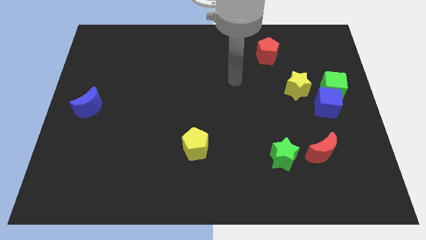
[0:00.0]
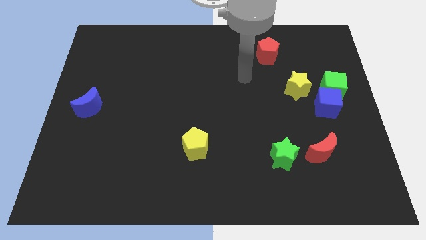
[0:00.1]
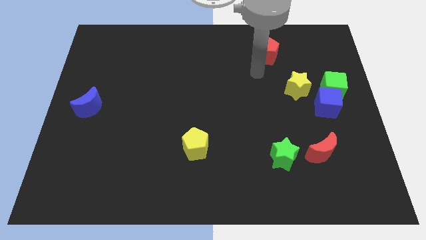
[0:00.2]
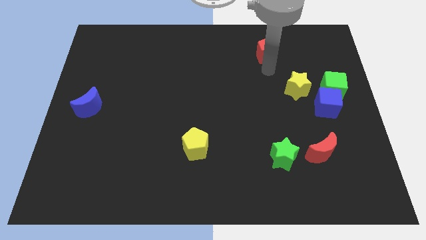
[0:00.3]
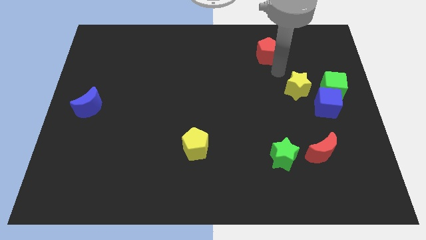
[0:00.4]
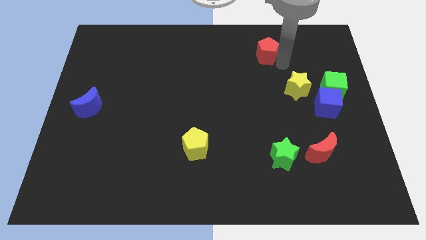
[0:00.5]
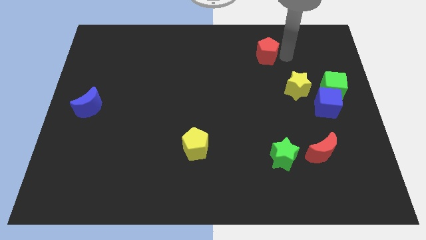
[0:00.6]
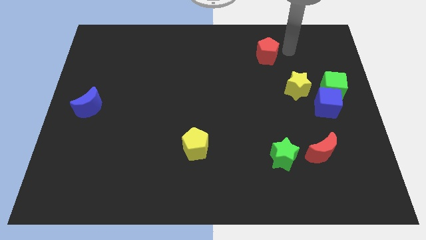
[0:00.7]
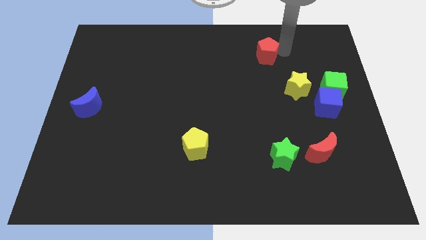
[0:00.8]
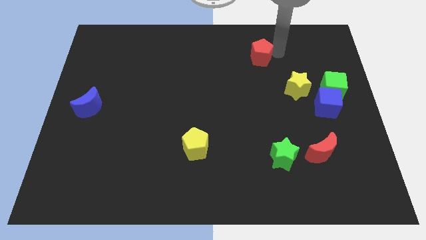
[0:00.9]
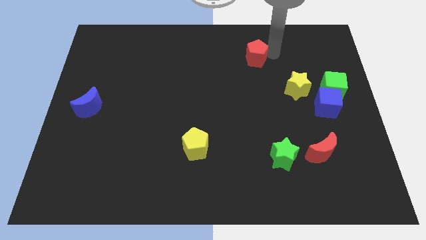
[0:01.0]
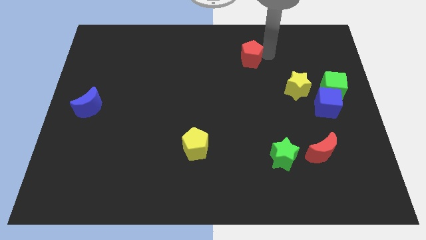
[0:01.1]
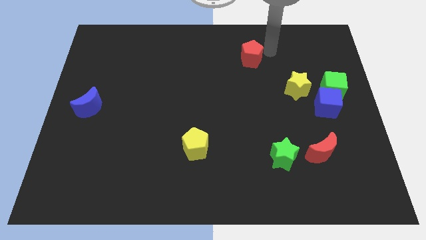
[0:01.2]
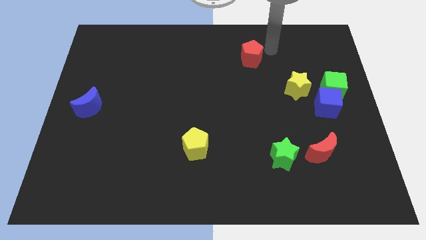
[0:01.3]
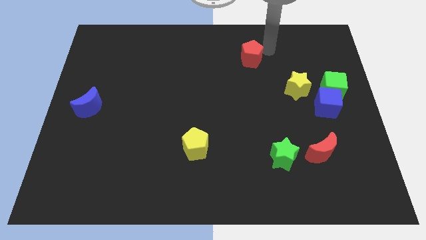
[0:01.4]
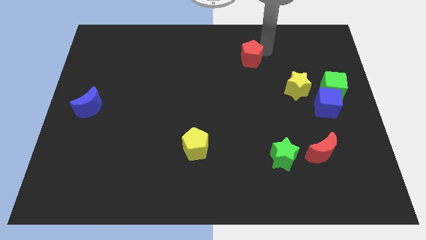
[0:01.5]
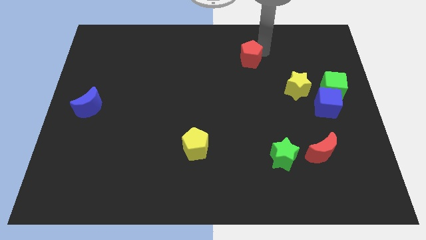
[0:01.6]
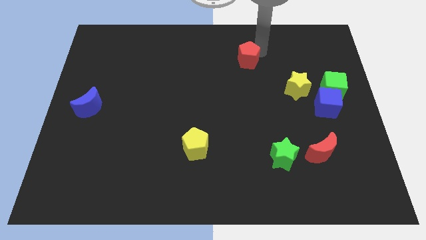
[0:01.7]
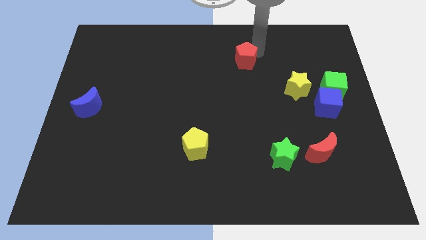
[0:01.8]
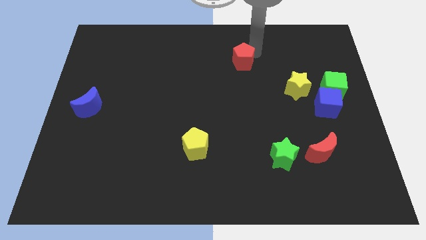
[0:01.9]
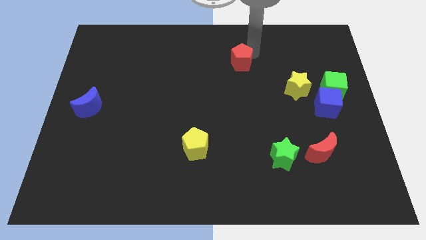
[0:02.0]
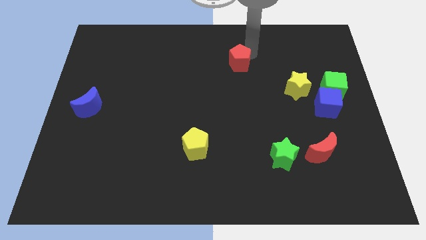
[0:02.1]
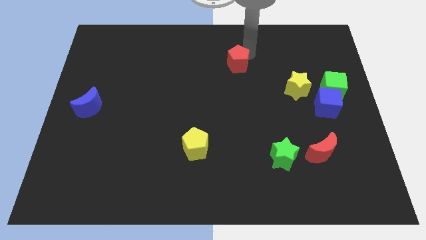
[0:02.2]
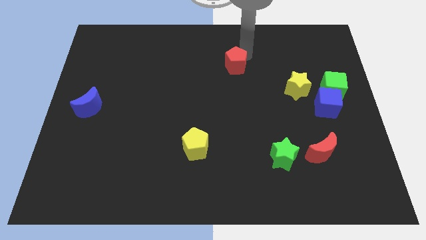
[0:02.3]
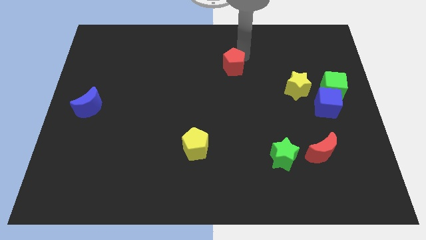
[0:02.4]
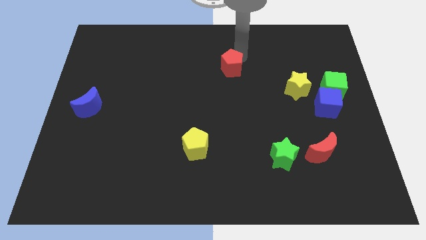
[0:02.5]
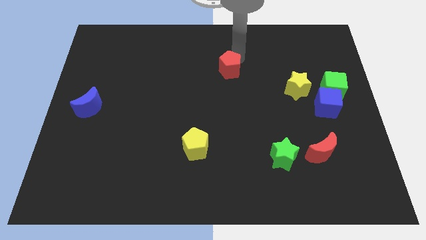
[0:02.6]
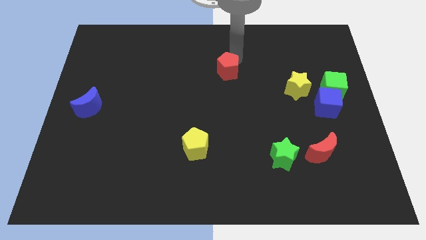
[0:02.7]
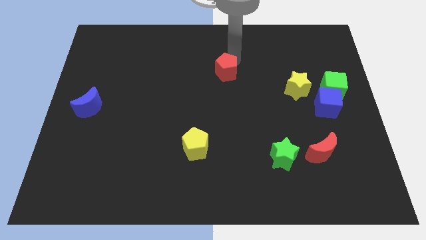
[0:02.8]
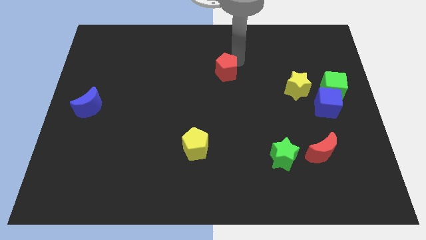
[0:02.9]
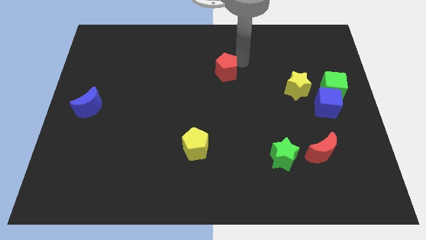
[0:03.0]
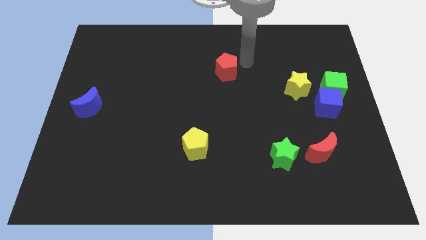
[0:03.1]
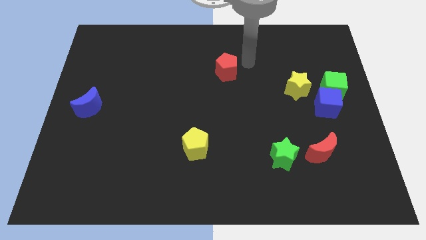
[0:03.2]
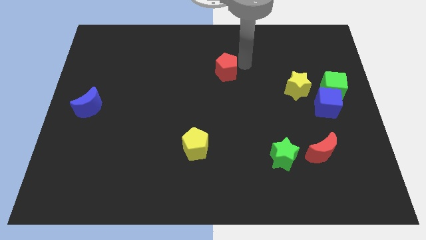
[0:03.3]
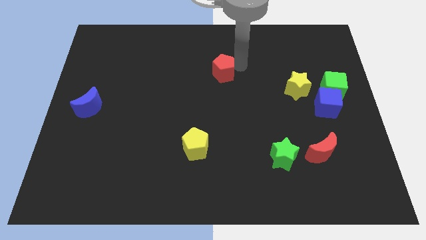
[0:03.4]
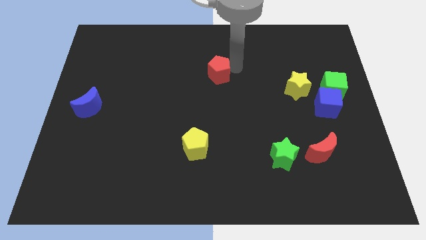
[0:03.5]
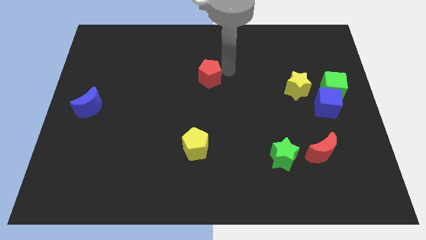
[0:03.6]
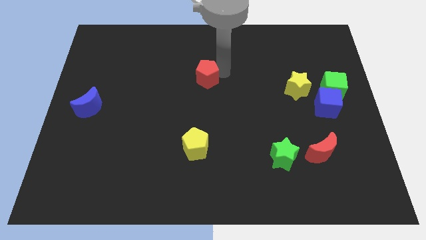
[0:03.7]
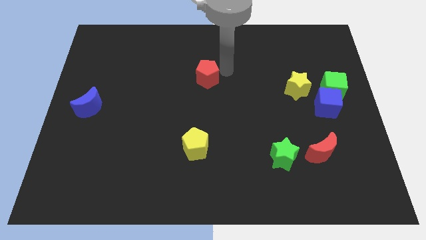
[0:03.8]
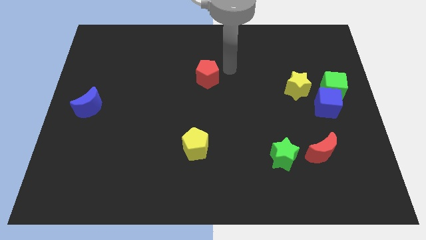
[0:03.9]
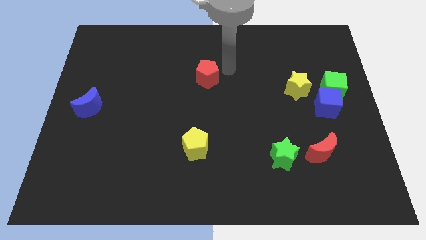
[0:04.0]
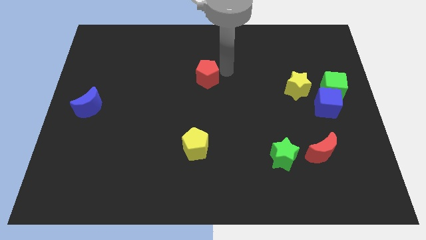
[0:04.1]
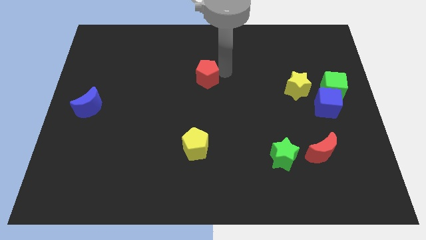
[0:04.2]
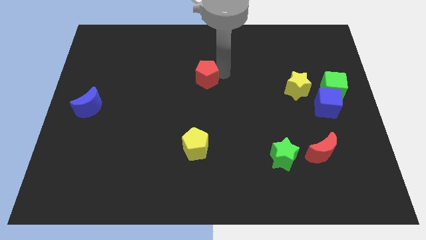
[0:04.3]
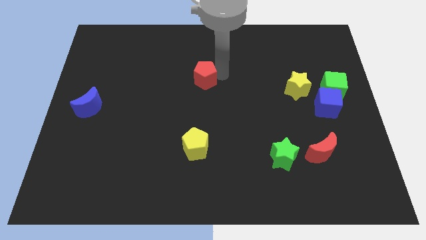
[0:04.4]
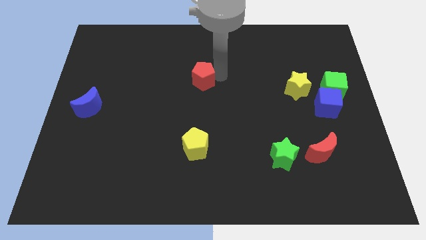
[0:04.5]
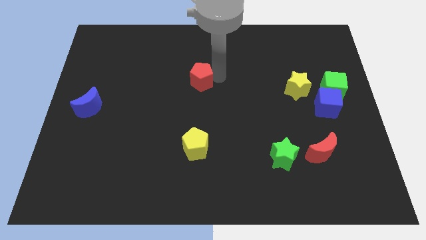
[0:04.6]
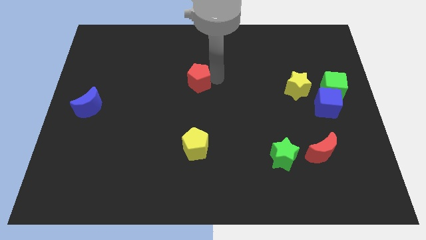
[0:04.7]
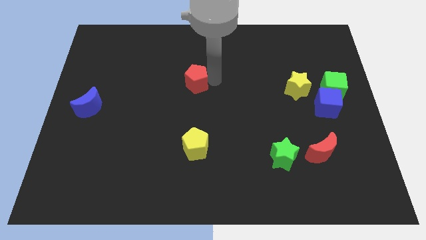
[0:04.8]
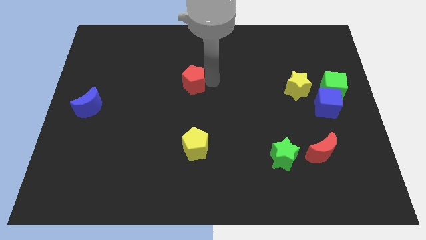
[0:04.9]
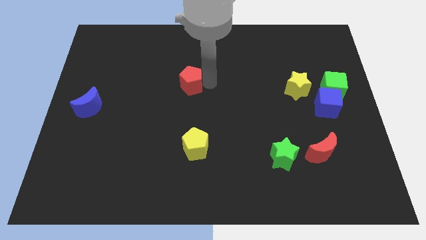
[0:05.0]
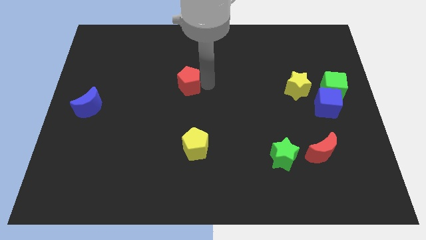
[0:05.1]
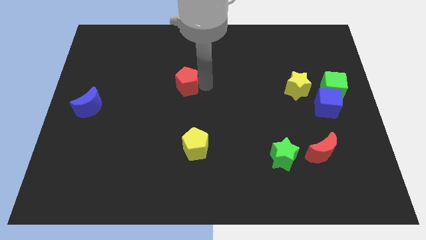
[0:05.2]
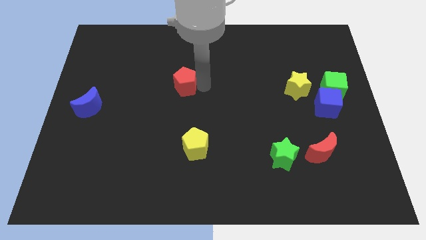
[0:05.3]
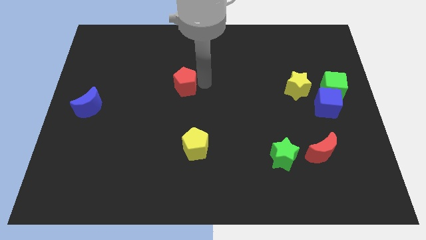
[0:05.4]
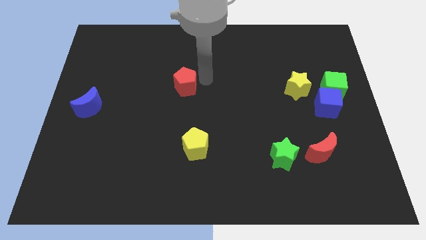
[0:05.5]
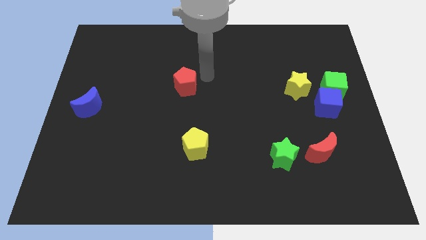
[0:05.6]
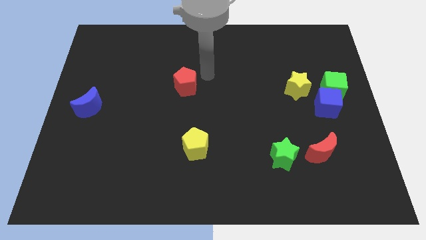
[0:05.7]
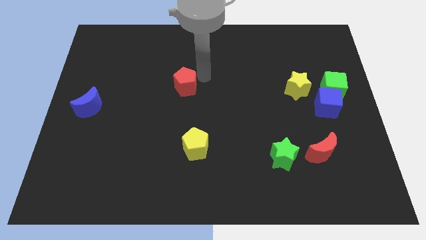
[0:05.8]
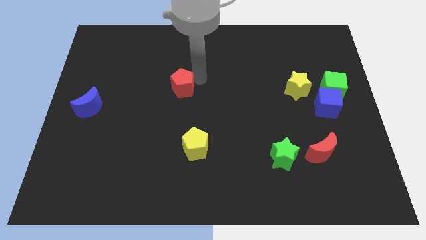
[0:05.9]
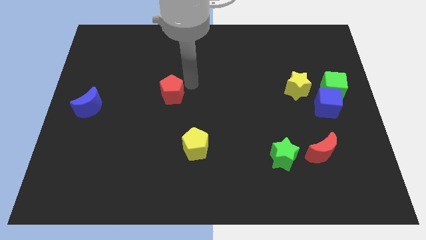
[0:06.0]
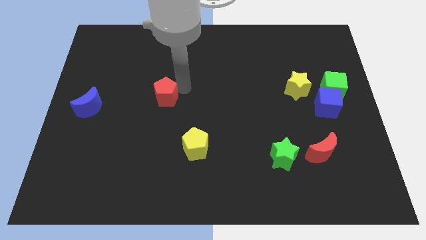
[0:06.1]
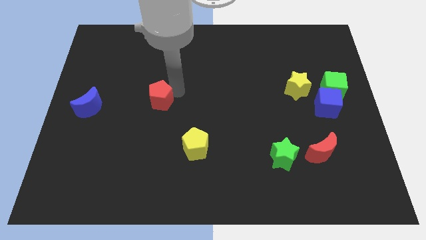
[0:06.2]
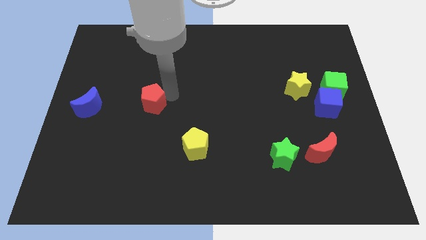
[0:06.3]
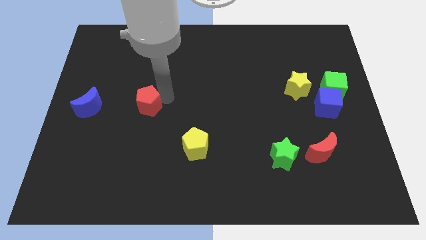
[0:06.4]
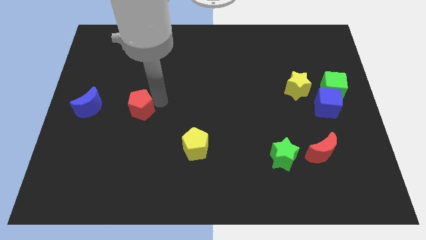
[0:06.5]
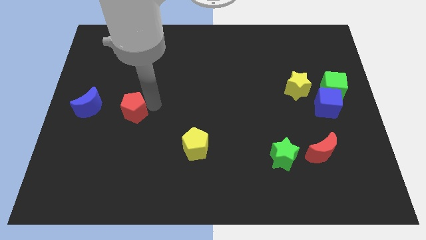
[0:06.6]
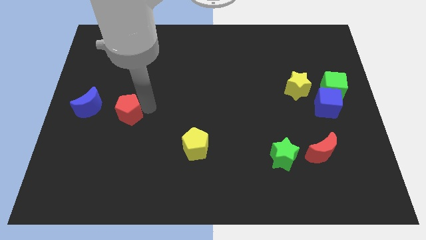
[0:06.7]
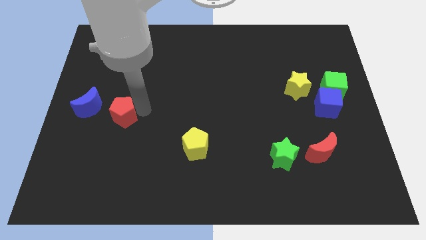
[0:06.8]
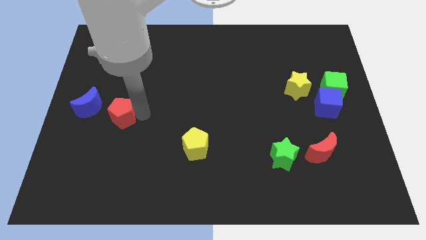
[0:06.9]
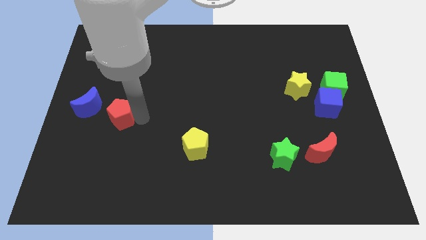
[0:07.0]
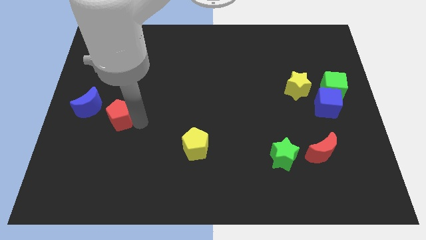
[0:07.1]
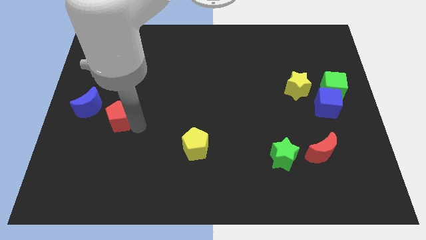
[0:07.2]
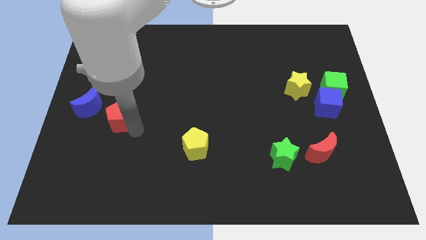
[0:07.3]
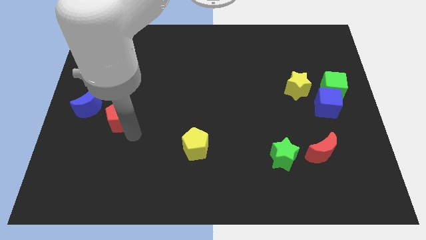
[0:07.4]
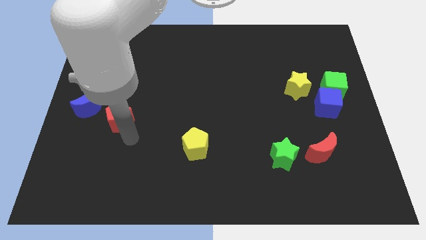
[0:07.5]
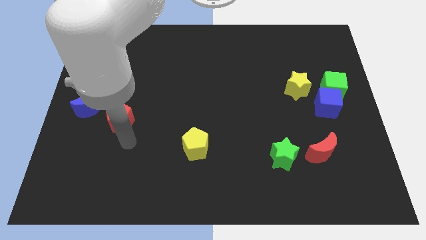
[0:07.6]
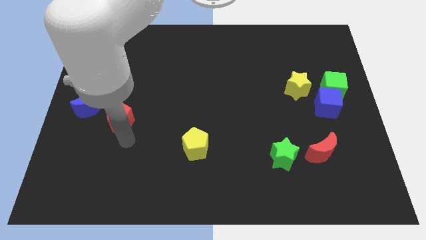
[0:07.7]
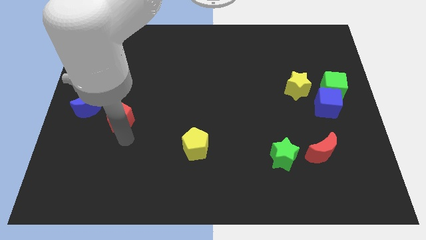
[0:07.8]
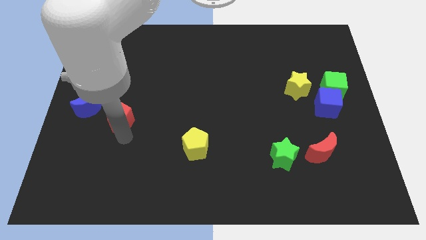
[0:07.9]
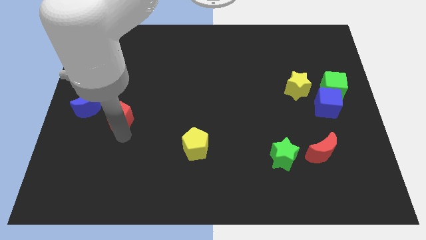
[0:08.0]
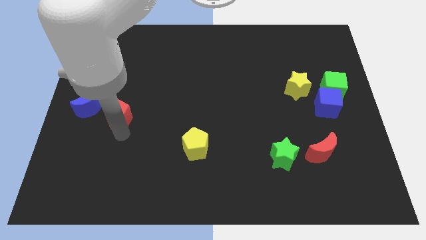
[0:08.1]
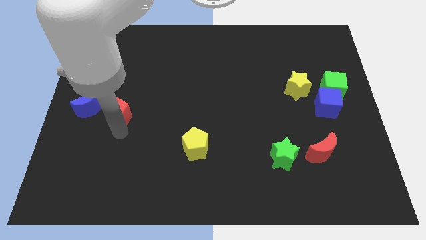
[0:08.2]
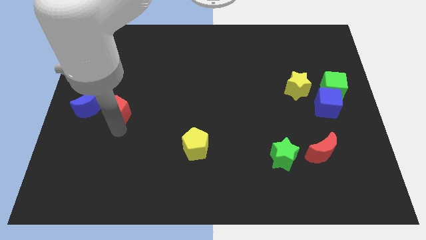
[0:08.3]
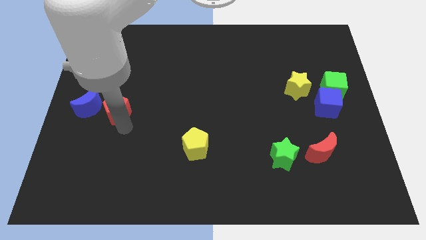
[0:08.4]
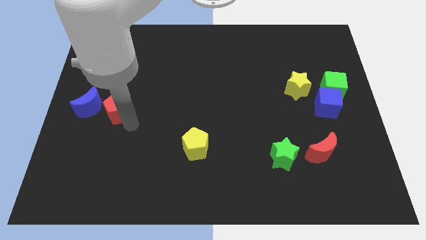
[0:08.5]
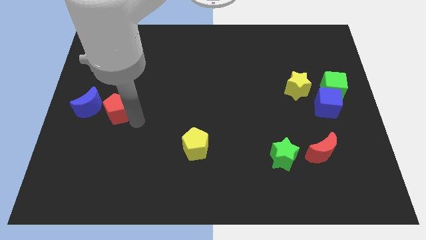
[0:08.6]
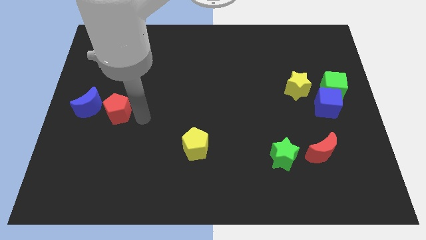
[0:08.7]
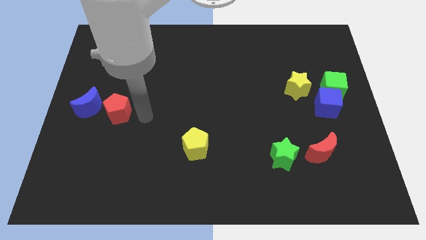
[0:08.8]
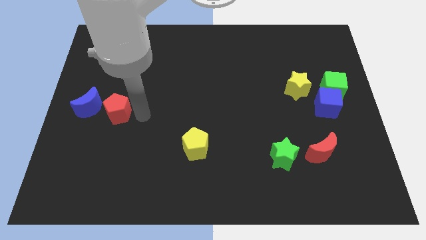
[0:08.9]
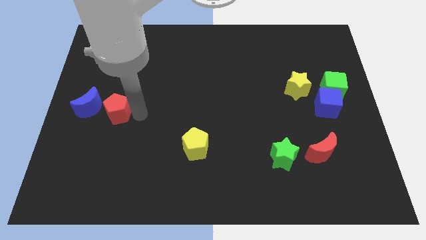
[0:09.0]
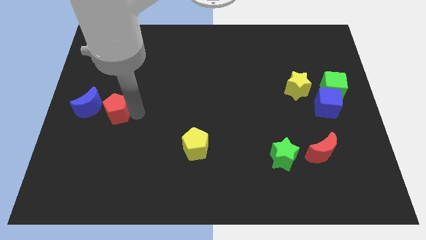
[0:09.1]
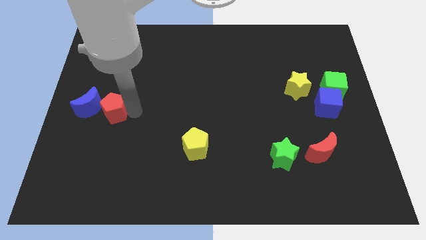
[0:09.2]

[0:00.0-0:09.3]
slide the red pentagon towards the blue moon
